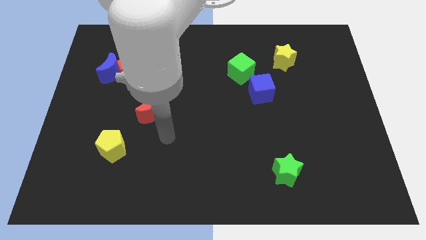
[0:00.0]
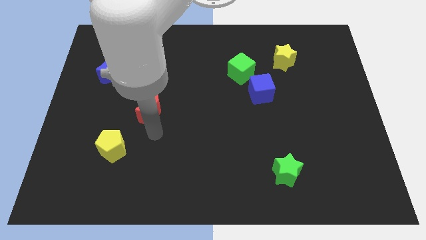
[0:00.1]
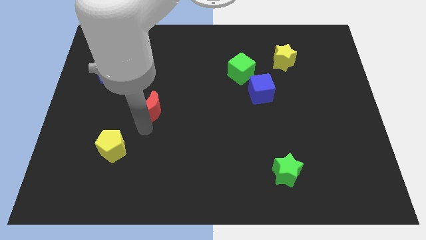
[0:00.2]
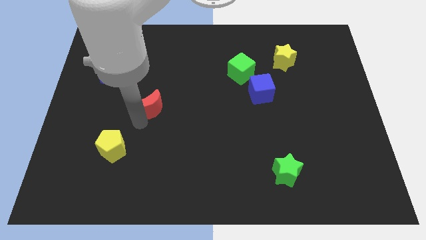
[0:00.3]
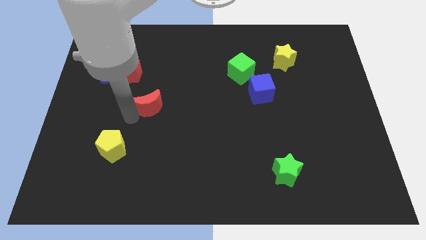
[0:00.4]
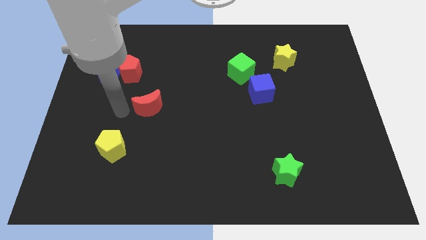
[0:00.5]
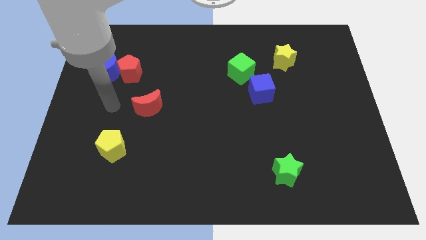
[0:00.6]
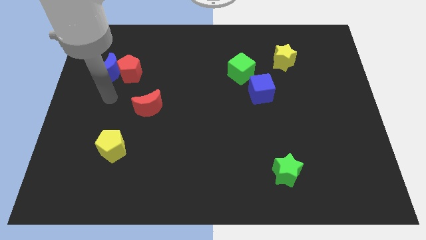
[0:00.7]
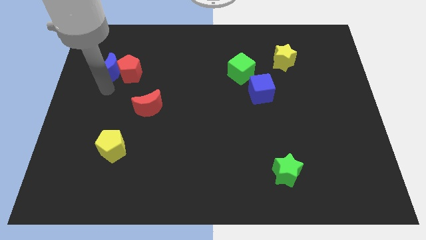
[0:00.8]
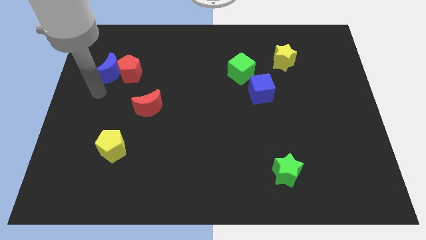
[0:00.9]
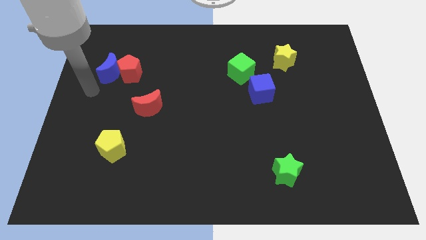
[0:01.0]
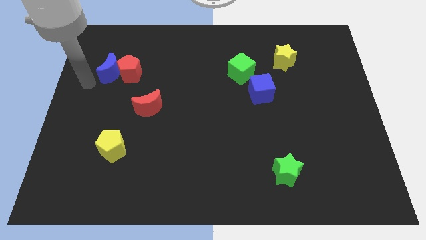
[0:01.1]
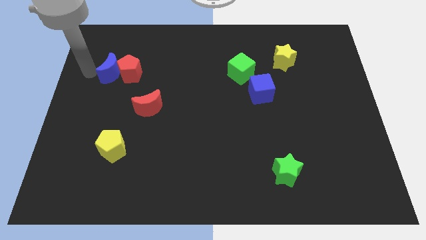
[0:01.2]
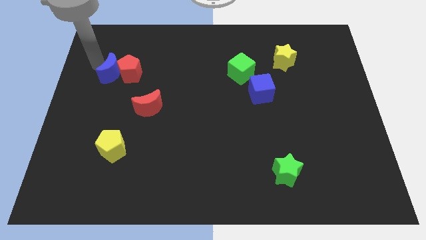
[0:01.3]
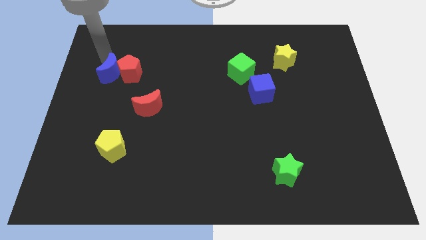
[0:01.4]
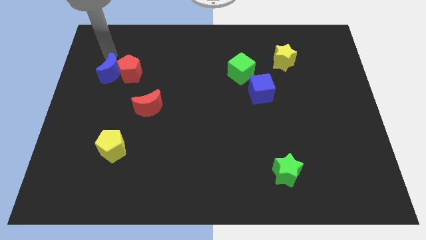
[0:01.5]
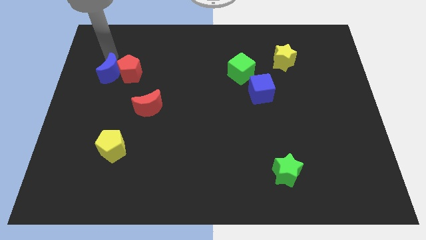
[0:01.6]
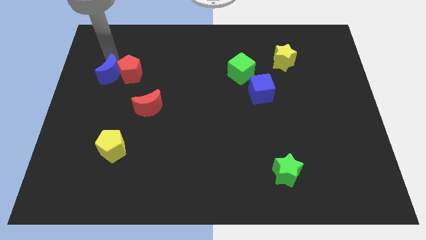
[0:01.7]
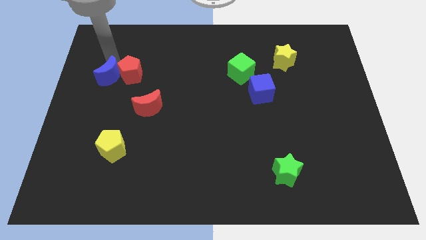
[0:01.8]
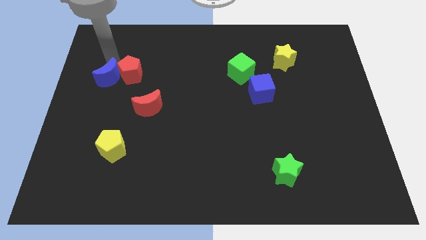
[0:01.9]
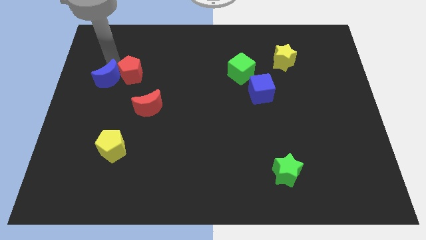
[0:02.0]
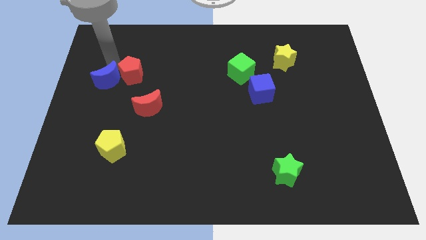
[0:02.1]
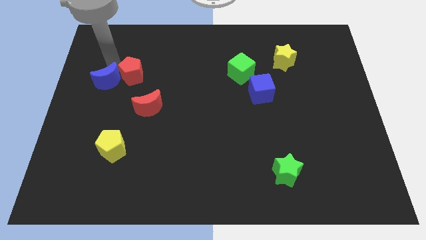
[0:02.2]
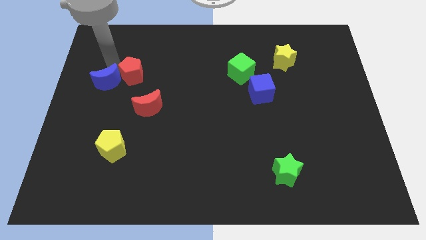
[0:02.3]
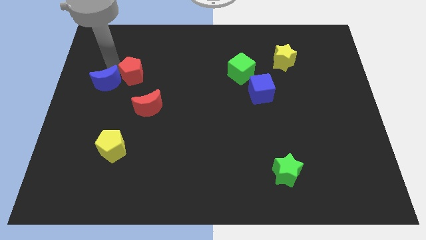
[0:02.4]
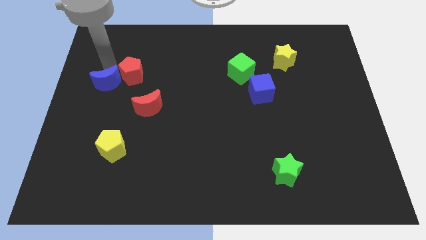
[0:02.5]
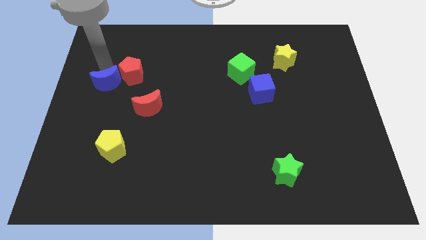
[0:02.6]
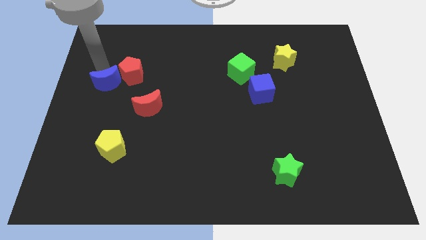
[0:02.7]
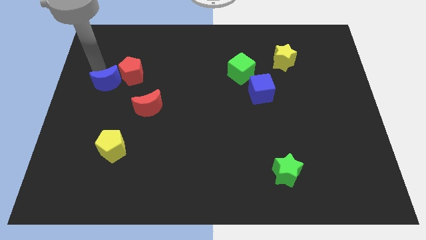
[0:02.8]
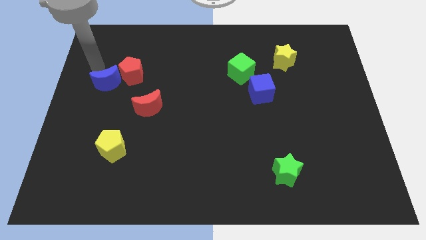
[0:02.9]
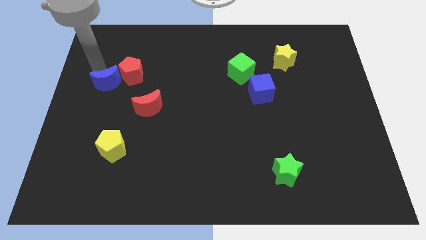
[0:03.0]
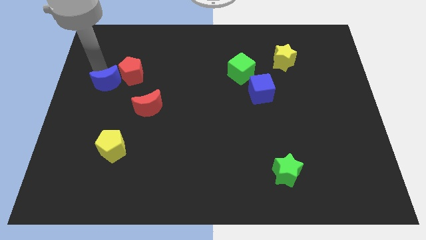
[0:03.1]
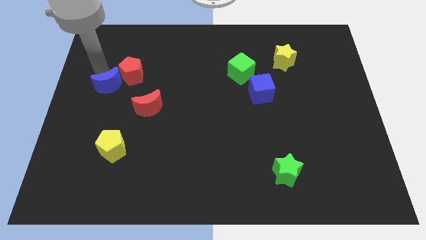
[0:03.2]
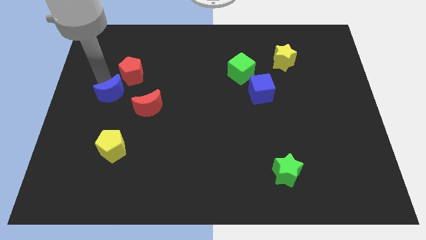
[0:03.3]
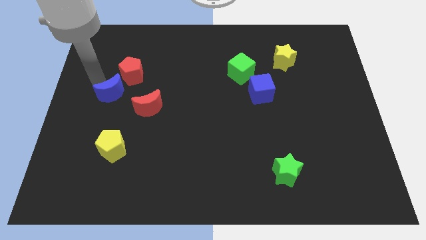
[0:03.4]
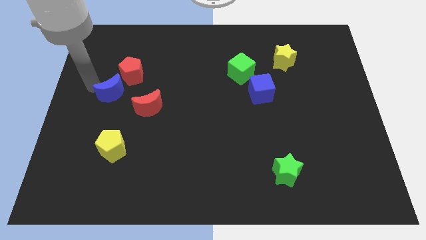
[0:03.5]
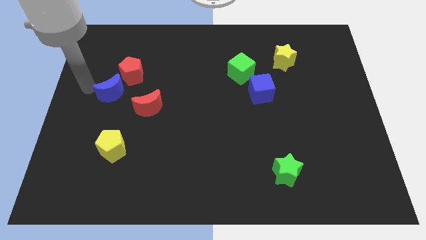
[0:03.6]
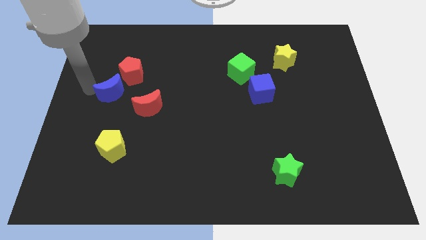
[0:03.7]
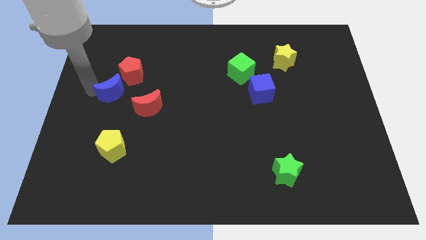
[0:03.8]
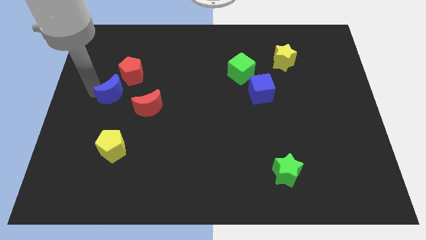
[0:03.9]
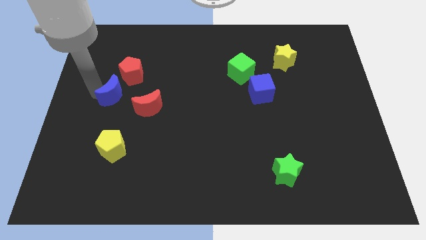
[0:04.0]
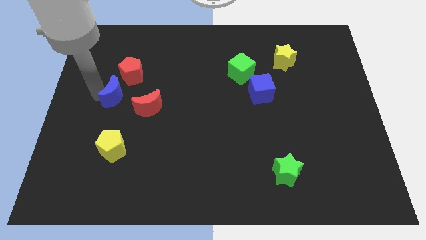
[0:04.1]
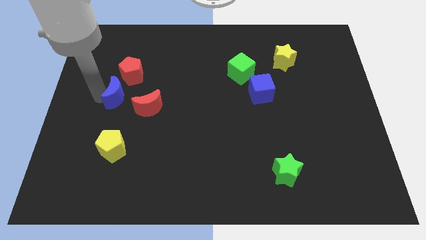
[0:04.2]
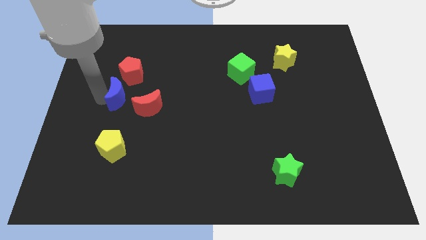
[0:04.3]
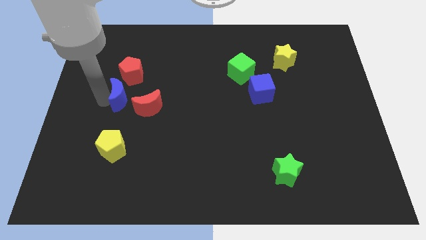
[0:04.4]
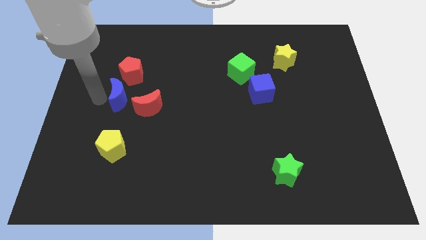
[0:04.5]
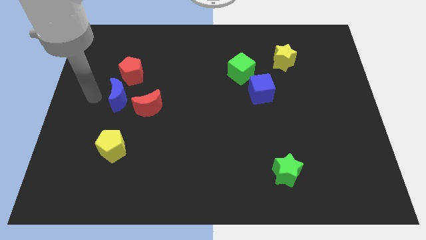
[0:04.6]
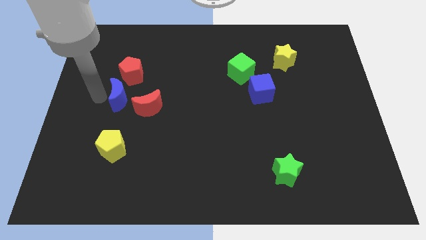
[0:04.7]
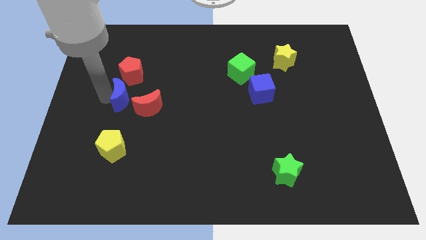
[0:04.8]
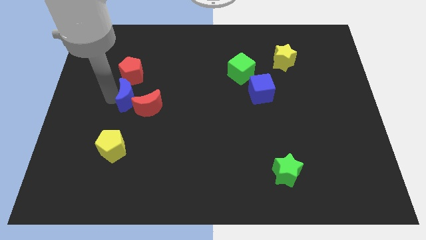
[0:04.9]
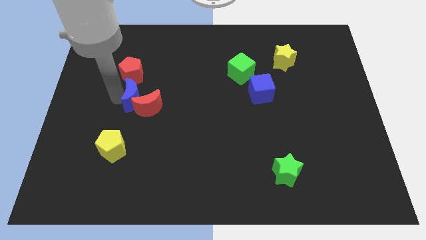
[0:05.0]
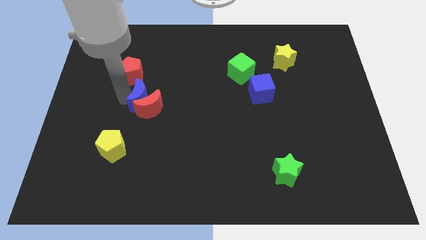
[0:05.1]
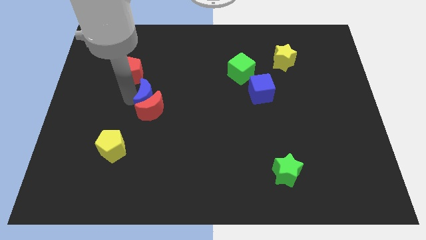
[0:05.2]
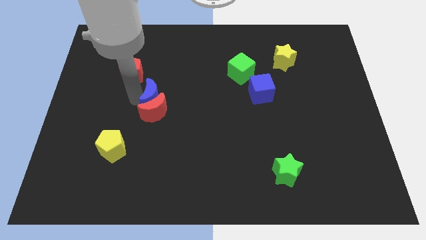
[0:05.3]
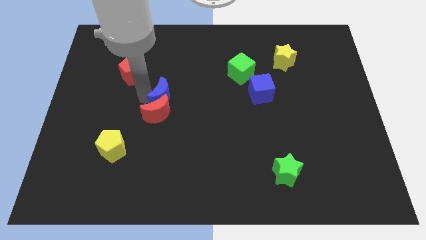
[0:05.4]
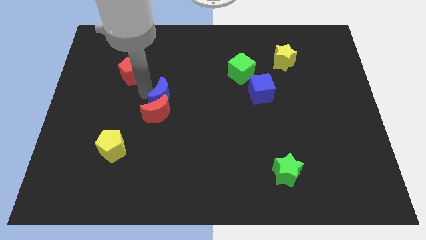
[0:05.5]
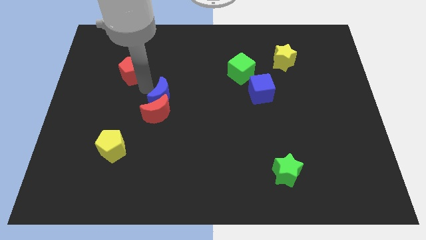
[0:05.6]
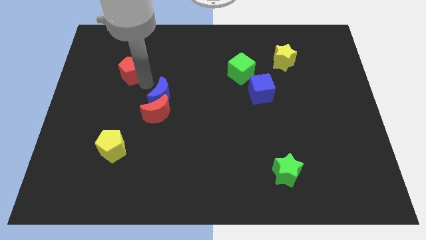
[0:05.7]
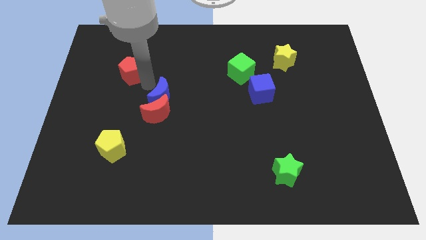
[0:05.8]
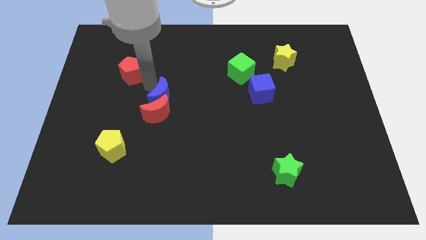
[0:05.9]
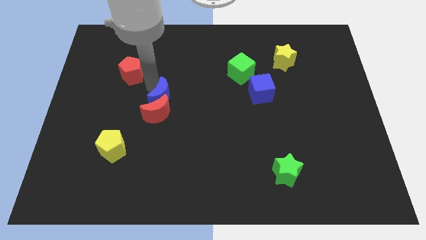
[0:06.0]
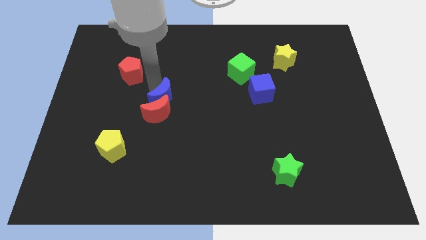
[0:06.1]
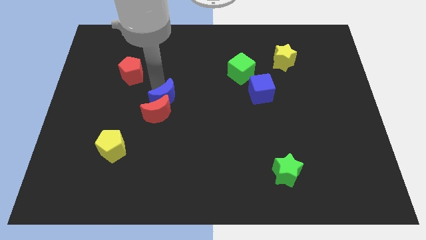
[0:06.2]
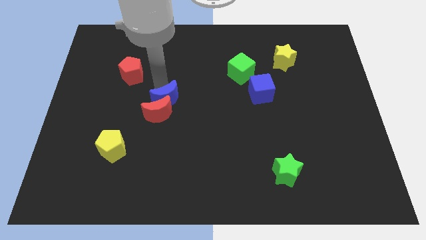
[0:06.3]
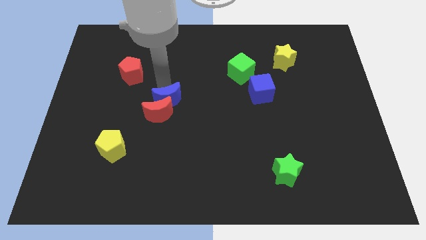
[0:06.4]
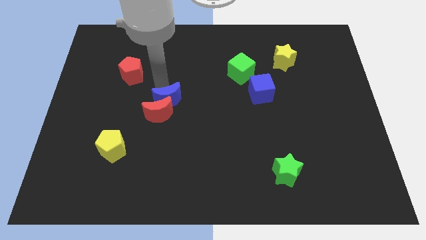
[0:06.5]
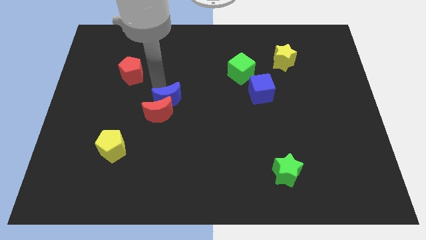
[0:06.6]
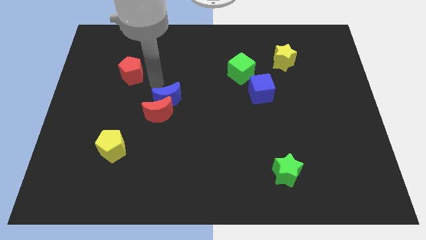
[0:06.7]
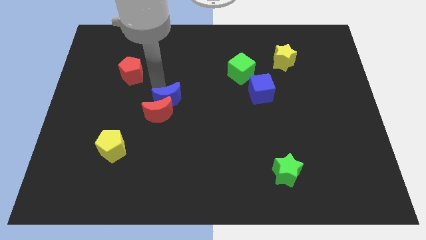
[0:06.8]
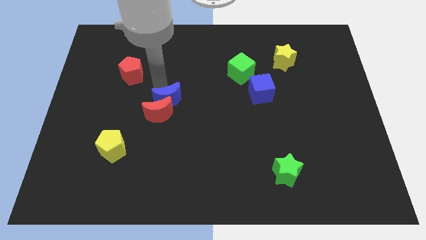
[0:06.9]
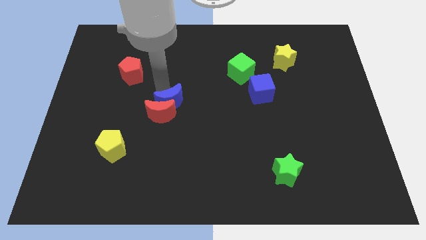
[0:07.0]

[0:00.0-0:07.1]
put the blue moon just right of the red moon

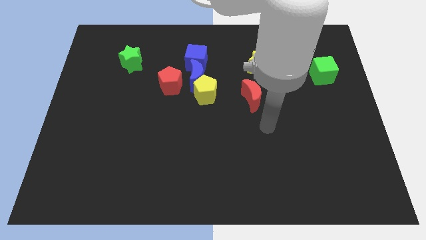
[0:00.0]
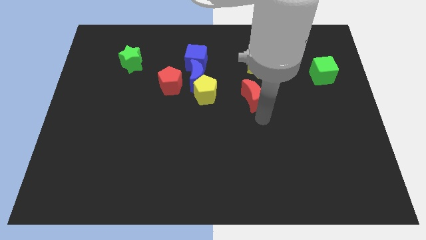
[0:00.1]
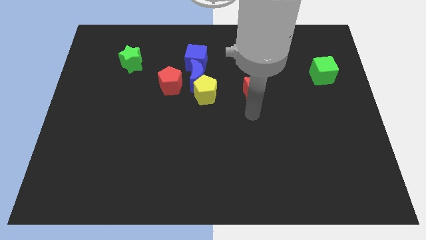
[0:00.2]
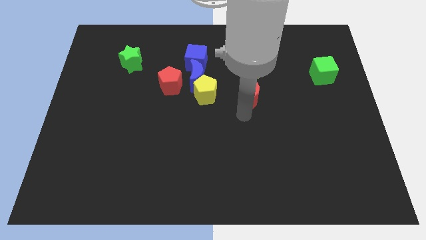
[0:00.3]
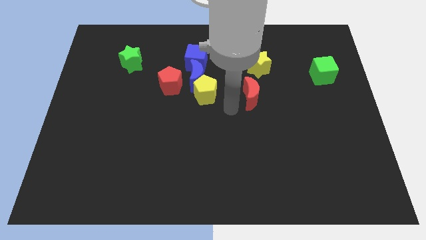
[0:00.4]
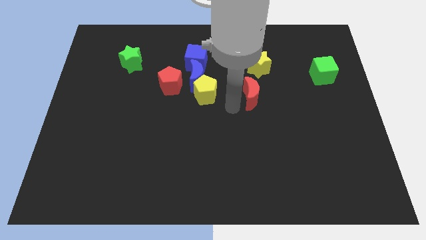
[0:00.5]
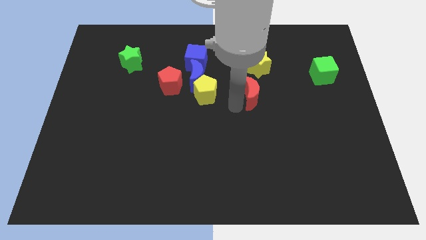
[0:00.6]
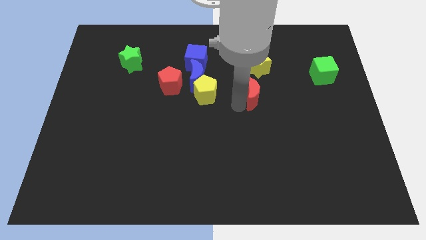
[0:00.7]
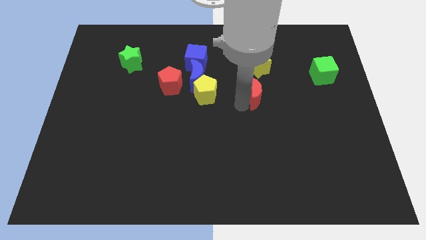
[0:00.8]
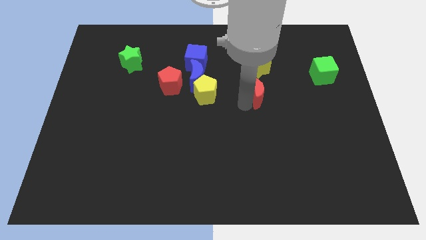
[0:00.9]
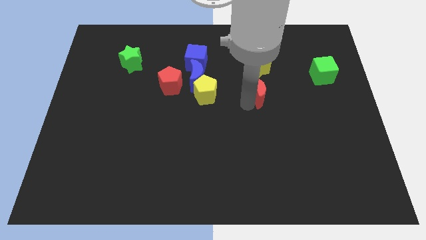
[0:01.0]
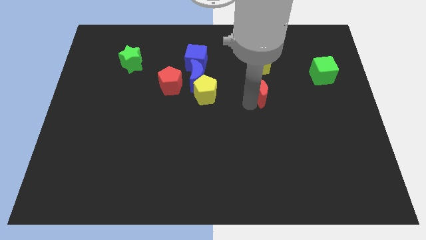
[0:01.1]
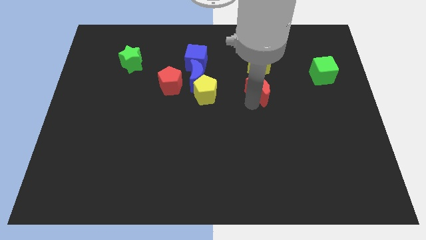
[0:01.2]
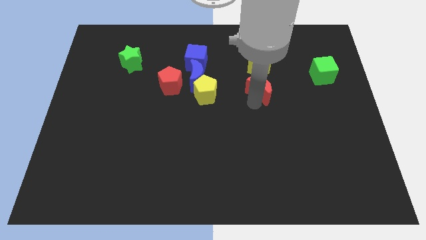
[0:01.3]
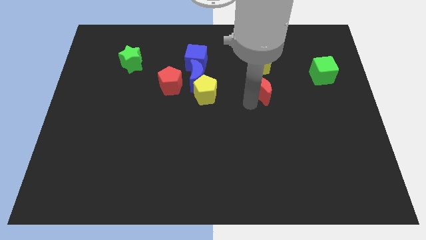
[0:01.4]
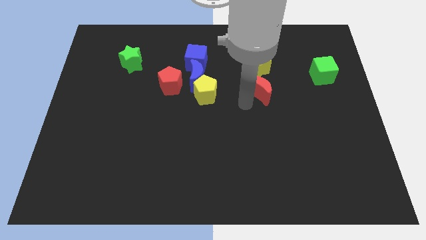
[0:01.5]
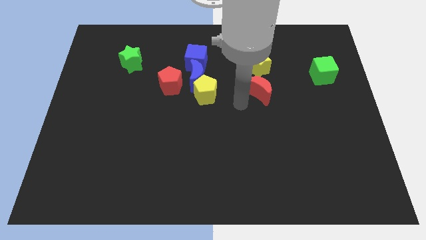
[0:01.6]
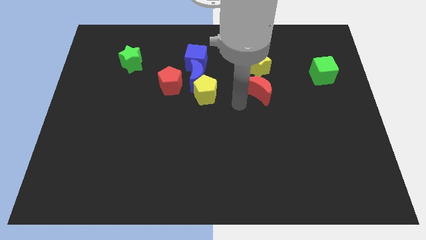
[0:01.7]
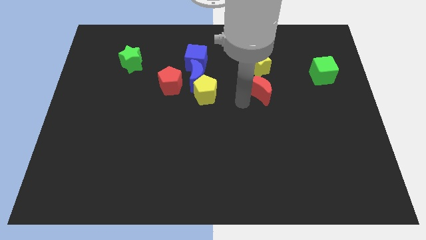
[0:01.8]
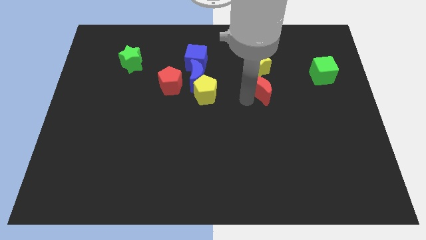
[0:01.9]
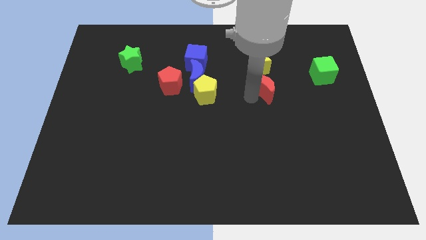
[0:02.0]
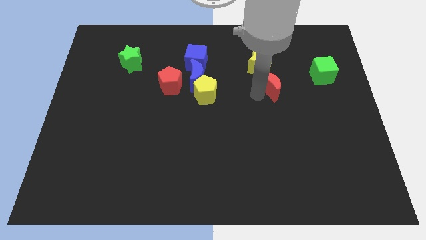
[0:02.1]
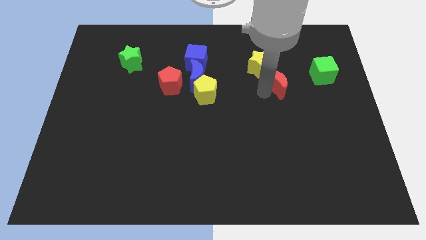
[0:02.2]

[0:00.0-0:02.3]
push the red moon just left of the green cube
